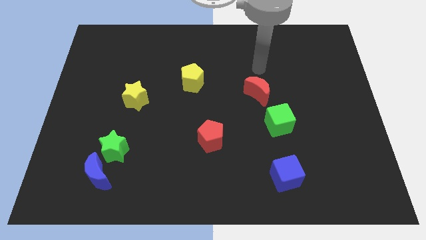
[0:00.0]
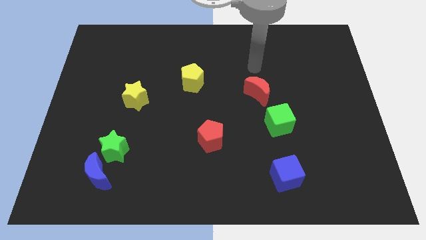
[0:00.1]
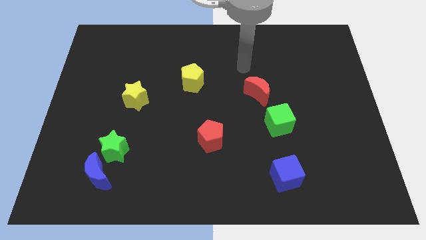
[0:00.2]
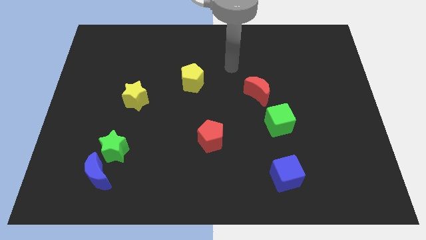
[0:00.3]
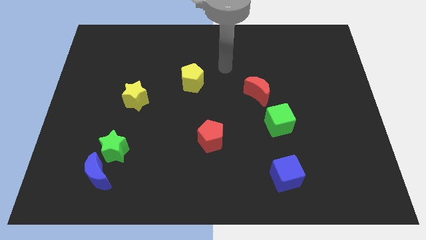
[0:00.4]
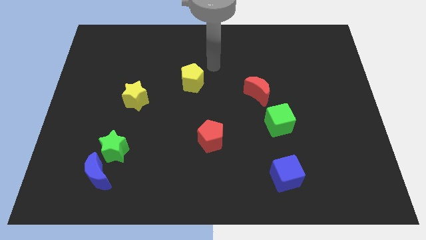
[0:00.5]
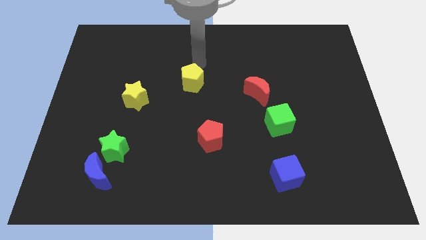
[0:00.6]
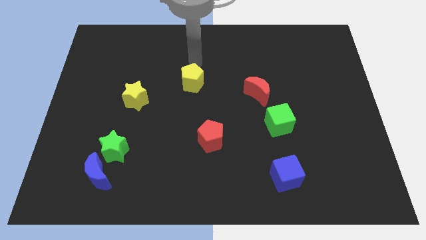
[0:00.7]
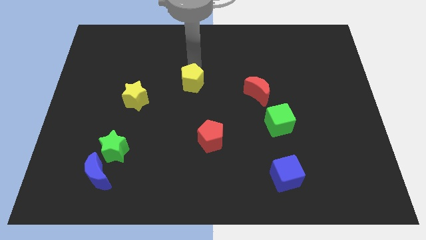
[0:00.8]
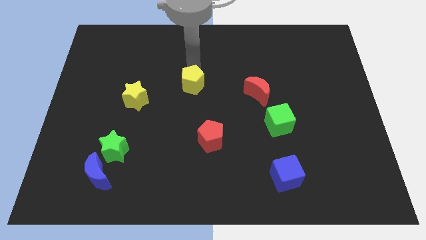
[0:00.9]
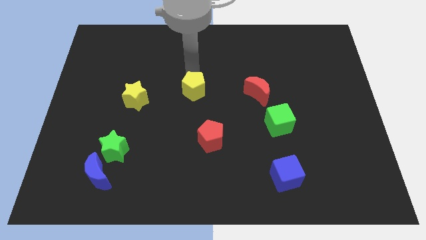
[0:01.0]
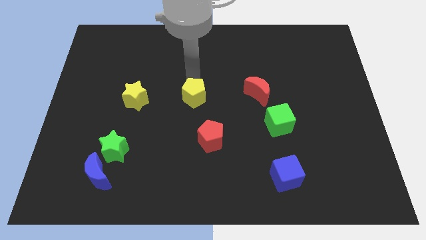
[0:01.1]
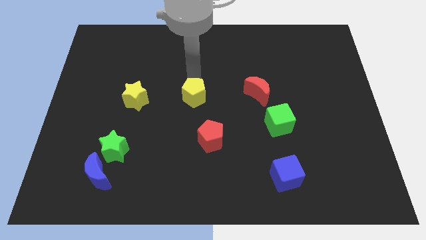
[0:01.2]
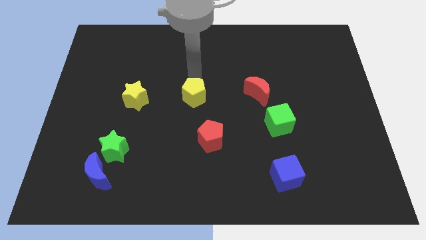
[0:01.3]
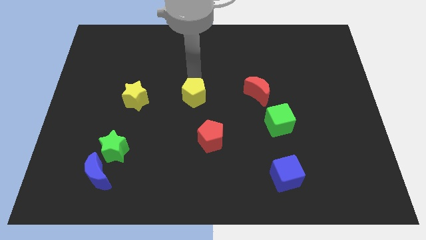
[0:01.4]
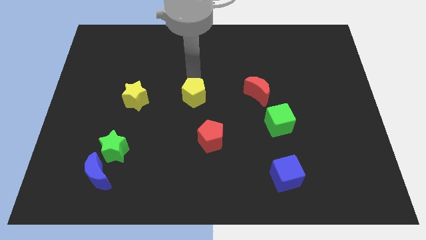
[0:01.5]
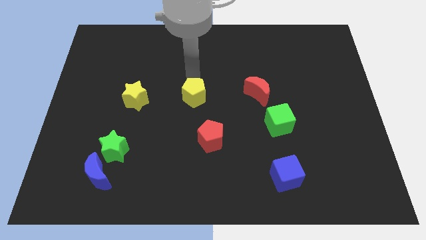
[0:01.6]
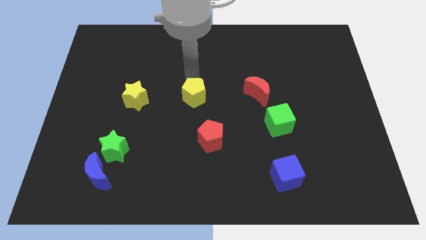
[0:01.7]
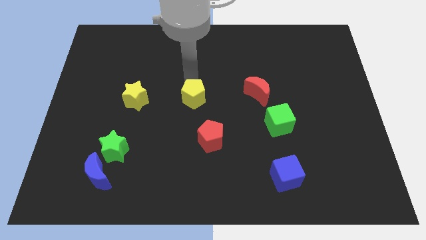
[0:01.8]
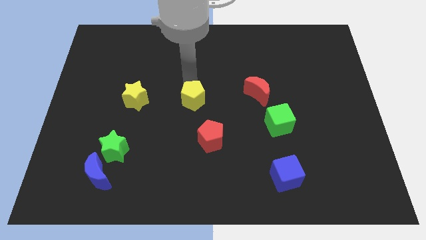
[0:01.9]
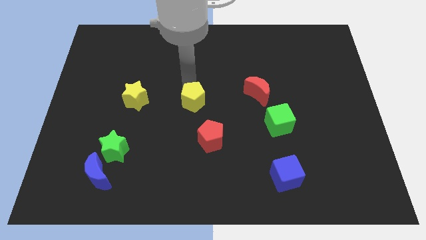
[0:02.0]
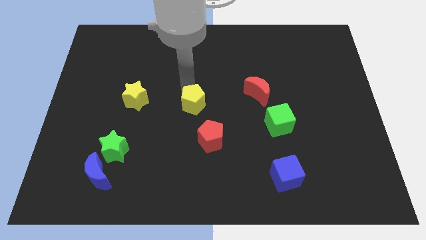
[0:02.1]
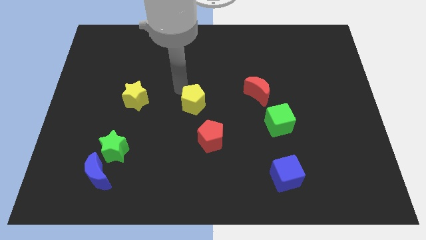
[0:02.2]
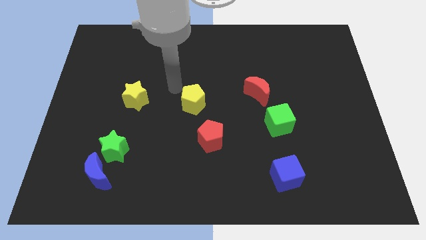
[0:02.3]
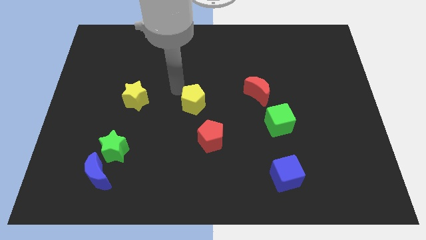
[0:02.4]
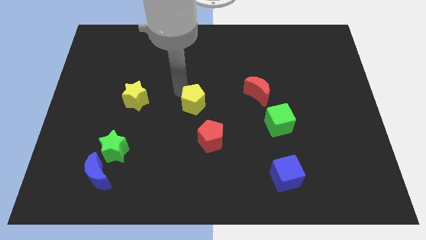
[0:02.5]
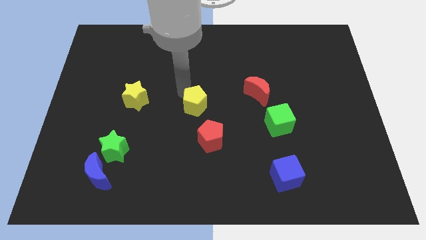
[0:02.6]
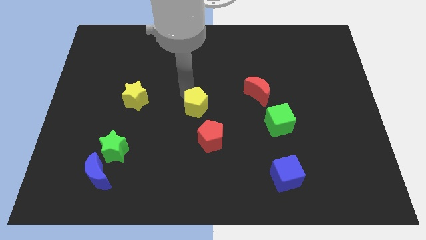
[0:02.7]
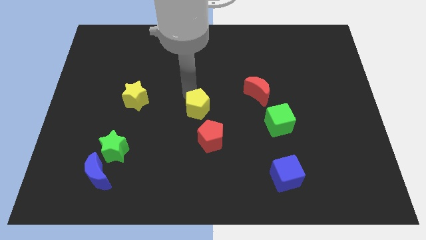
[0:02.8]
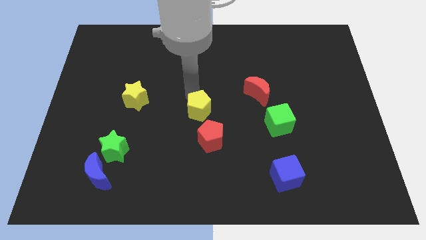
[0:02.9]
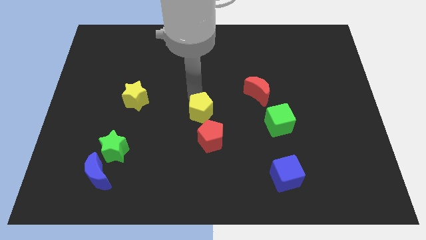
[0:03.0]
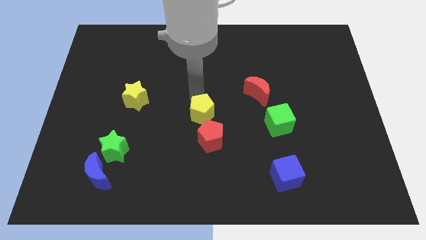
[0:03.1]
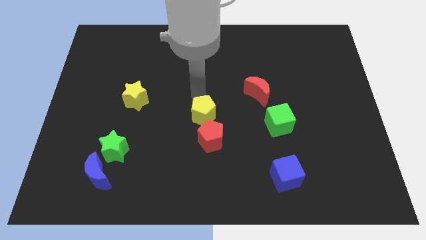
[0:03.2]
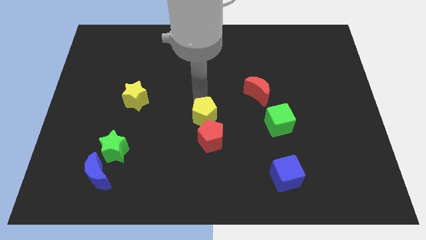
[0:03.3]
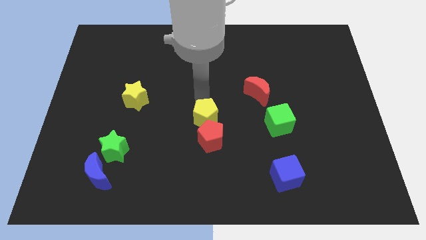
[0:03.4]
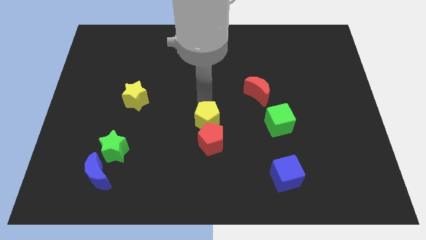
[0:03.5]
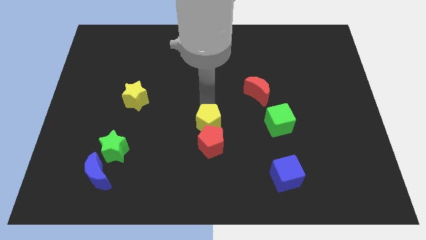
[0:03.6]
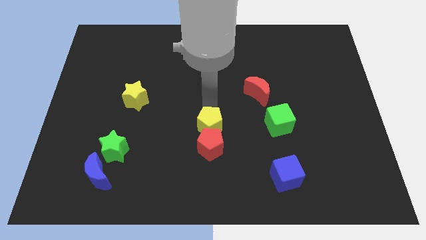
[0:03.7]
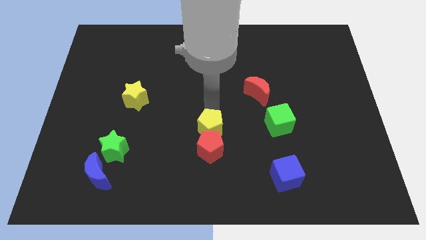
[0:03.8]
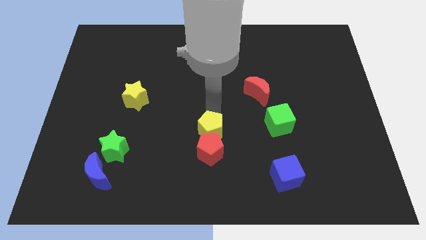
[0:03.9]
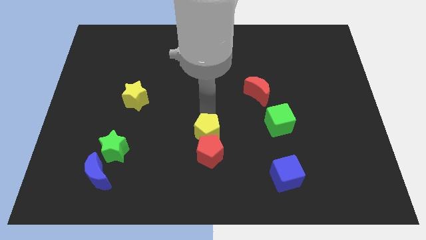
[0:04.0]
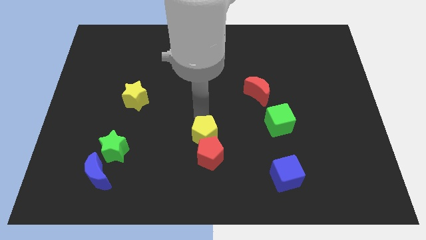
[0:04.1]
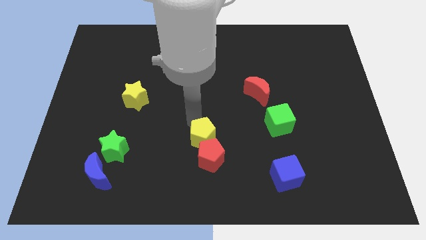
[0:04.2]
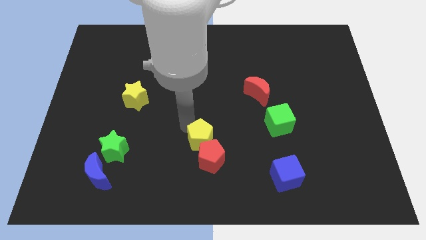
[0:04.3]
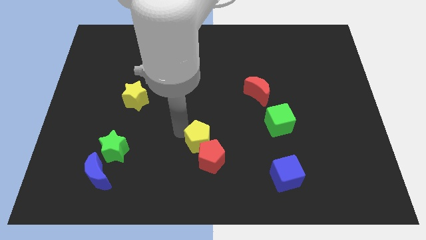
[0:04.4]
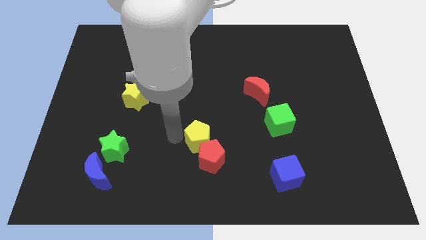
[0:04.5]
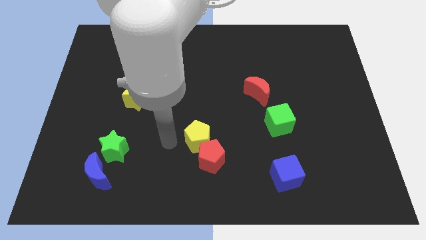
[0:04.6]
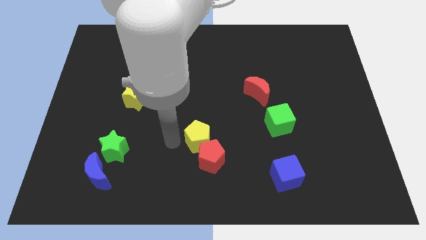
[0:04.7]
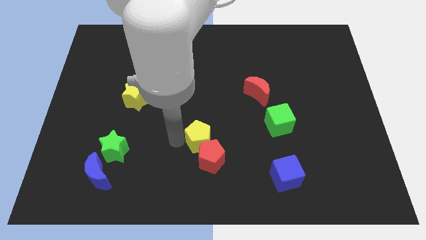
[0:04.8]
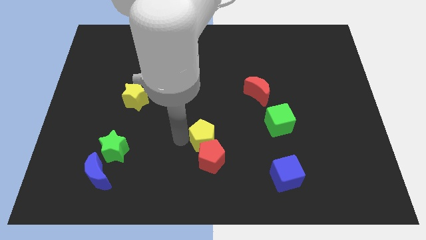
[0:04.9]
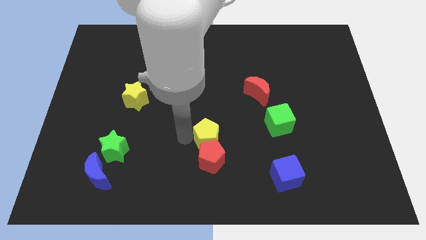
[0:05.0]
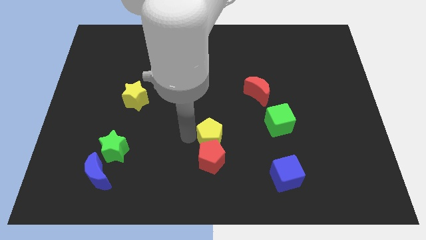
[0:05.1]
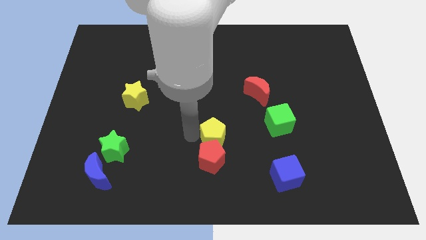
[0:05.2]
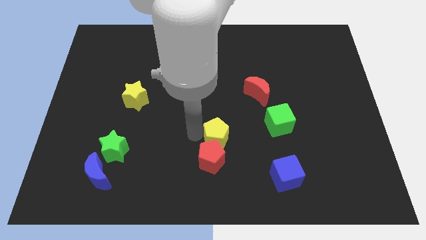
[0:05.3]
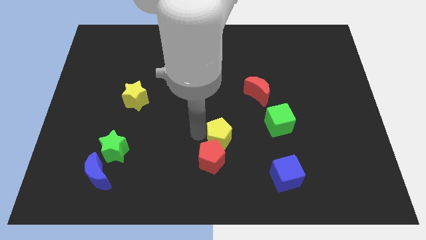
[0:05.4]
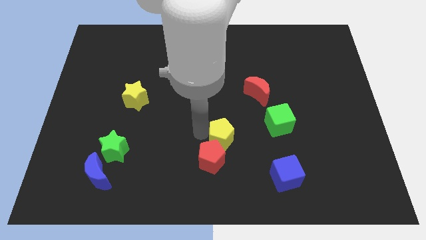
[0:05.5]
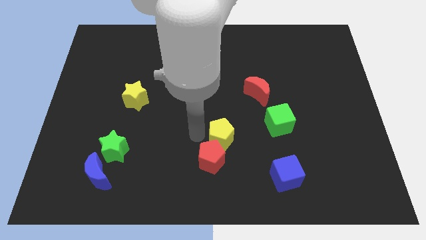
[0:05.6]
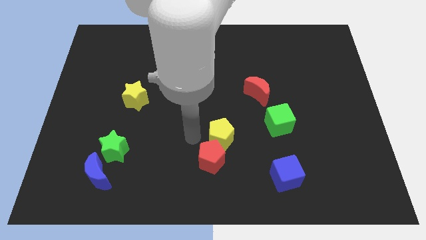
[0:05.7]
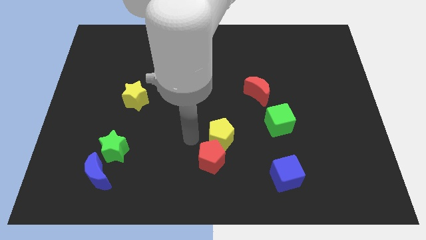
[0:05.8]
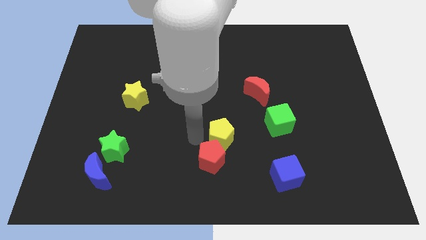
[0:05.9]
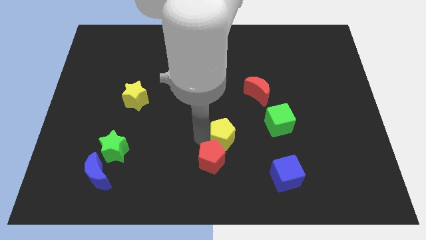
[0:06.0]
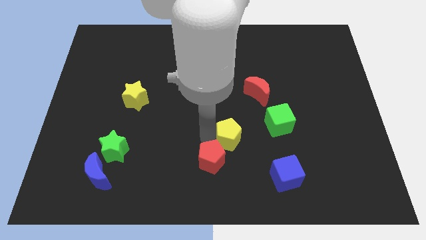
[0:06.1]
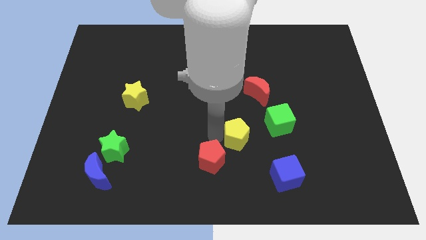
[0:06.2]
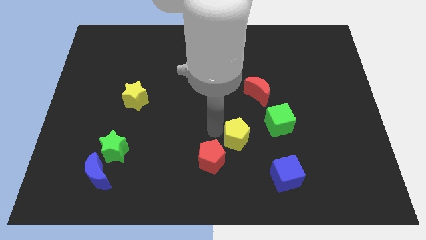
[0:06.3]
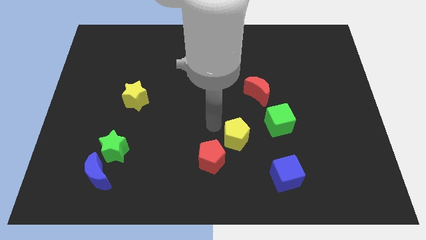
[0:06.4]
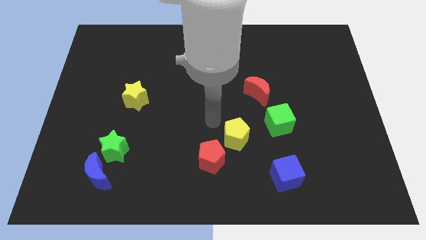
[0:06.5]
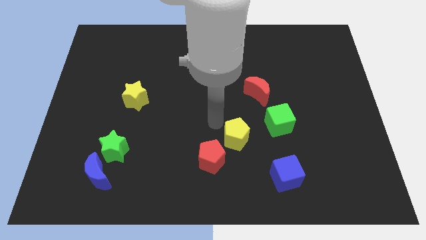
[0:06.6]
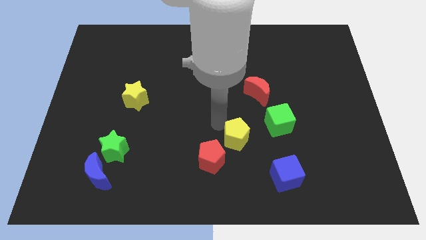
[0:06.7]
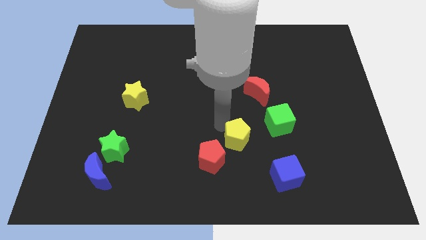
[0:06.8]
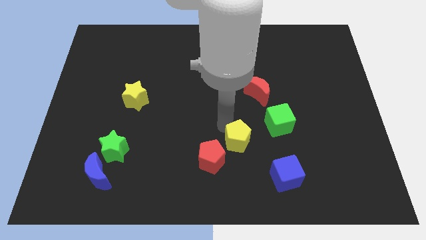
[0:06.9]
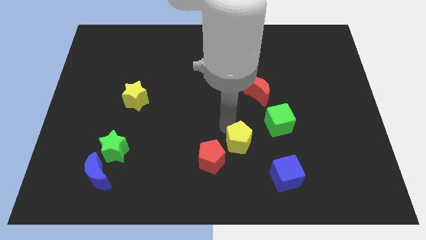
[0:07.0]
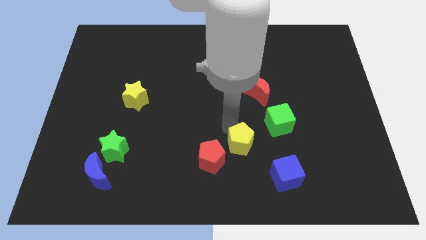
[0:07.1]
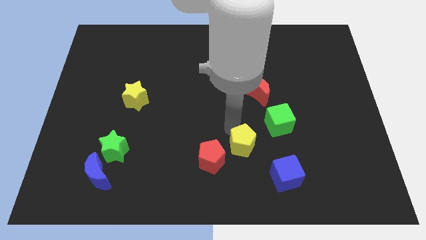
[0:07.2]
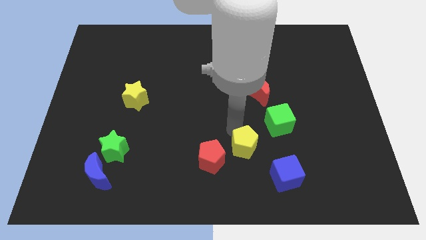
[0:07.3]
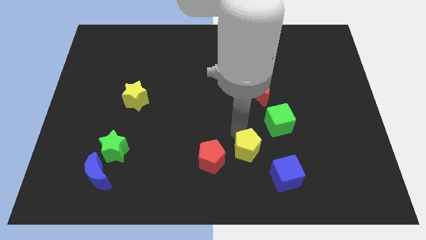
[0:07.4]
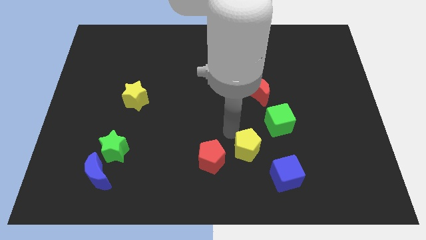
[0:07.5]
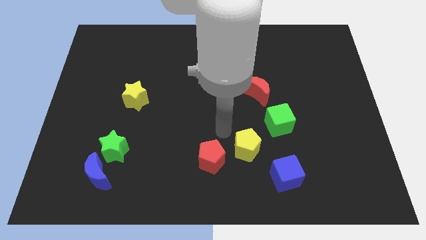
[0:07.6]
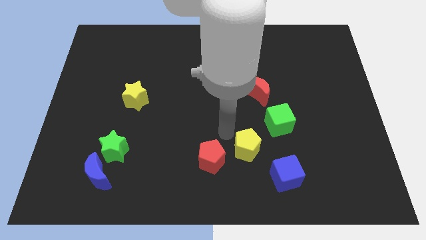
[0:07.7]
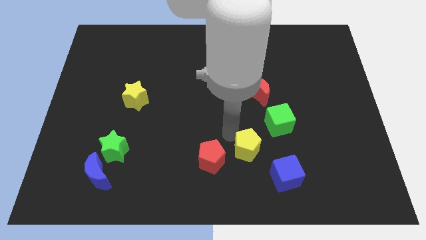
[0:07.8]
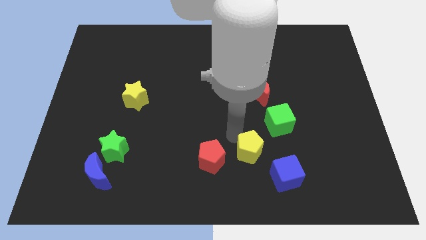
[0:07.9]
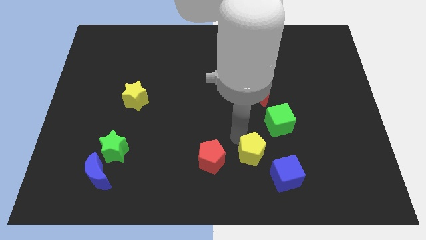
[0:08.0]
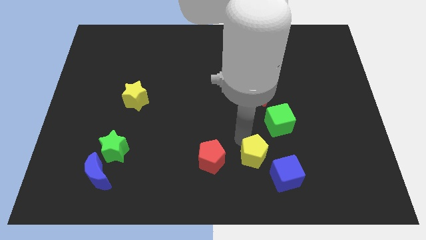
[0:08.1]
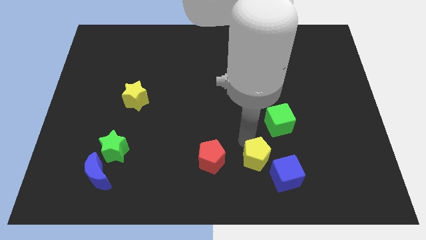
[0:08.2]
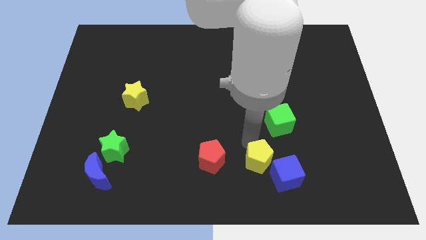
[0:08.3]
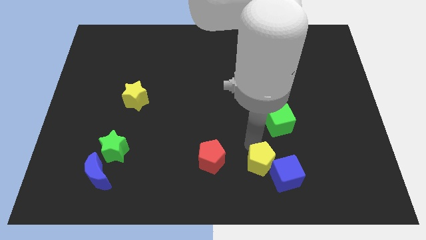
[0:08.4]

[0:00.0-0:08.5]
push the yellow pentagon close to the blue cube
